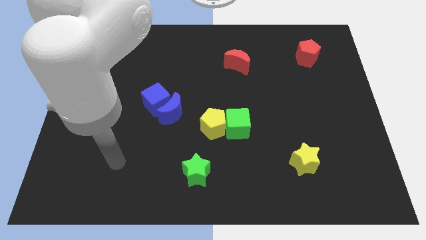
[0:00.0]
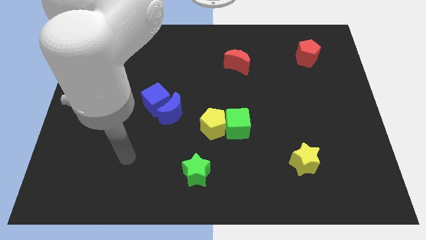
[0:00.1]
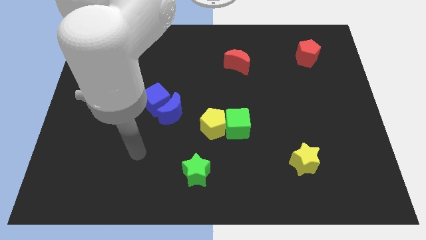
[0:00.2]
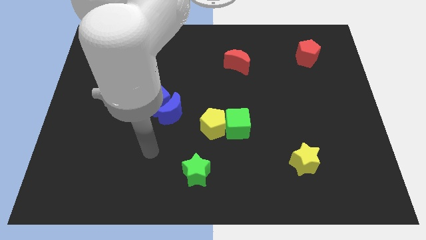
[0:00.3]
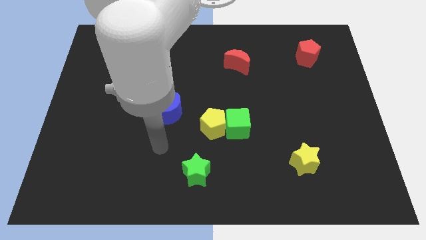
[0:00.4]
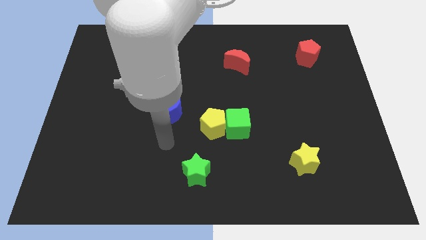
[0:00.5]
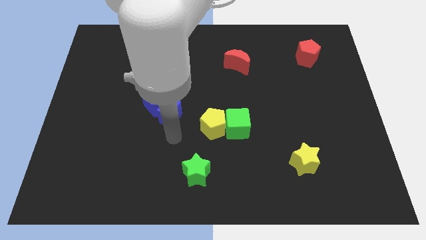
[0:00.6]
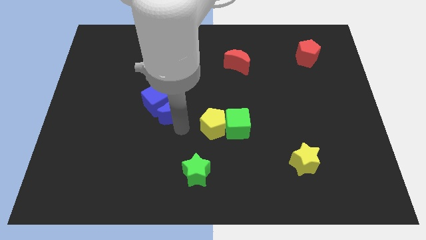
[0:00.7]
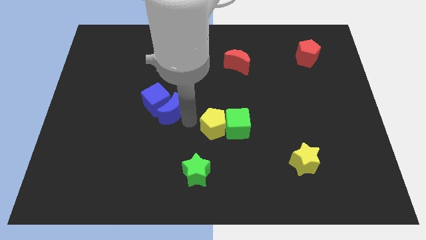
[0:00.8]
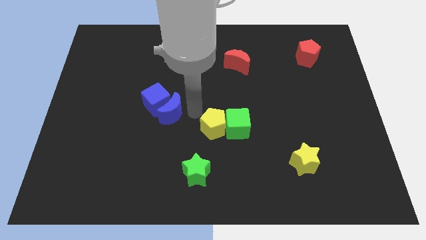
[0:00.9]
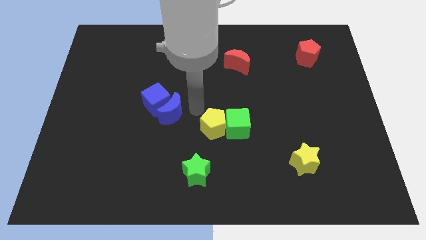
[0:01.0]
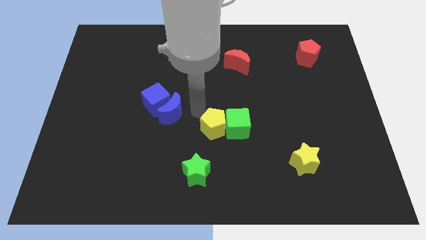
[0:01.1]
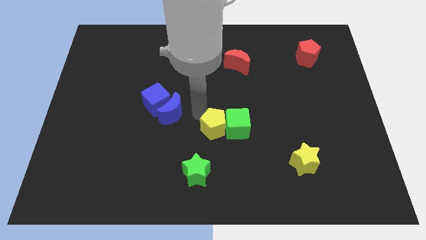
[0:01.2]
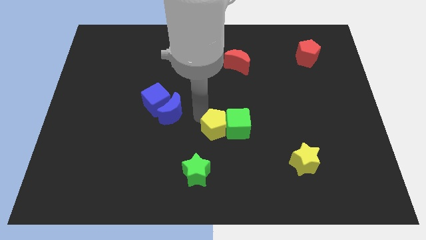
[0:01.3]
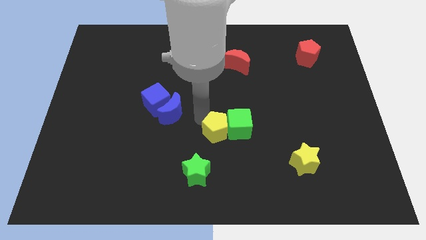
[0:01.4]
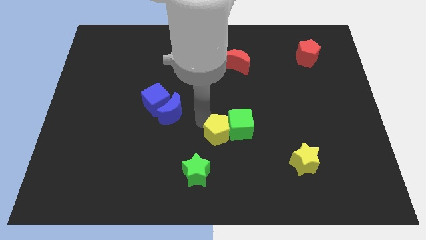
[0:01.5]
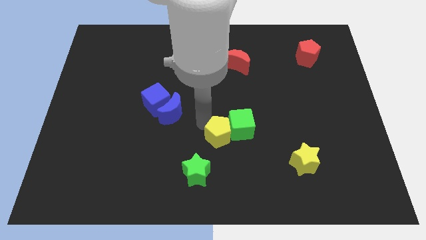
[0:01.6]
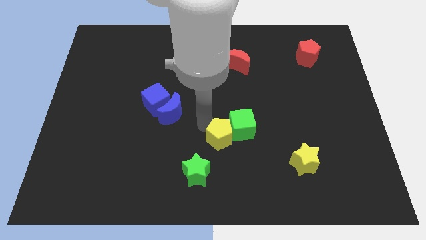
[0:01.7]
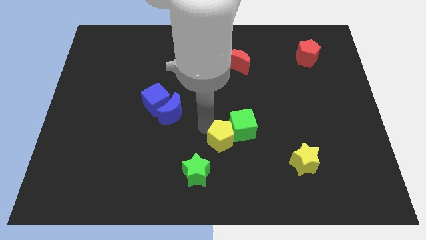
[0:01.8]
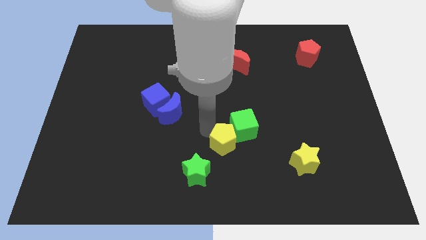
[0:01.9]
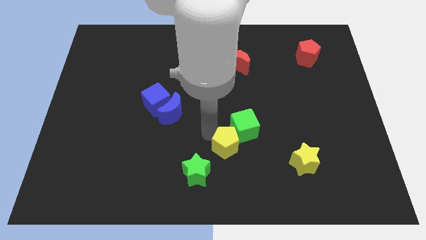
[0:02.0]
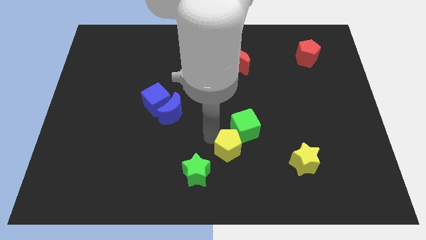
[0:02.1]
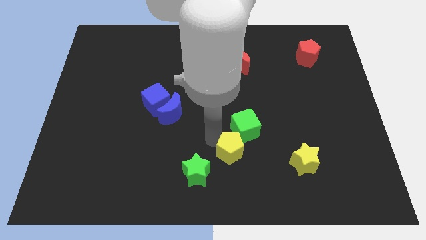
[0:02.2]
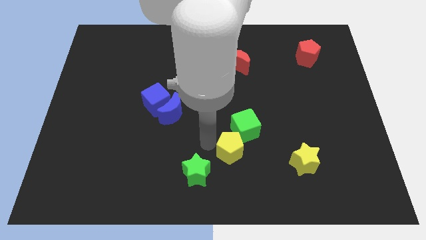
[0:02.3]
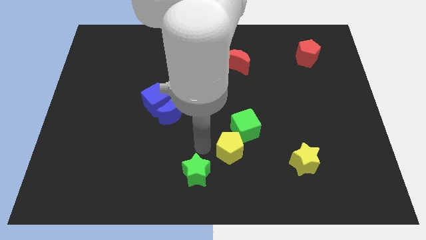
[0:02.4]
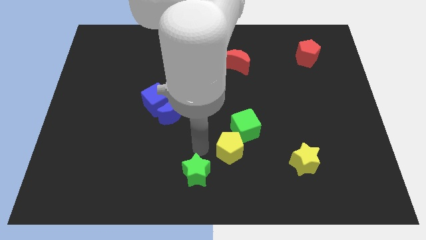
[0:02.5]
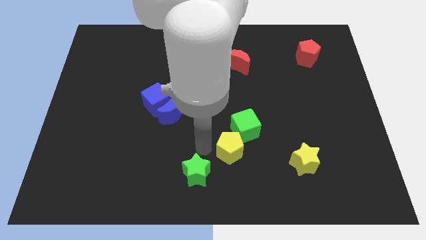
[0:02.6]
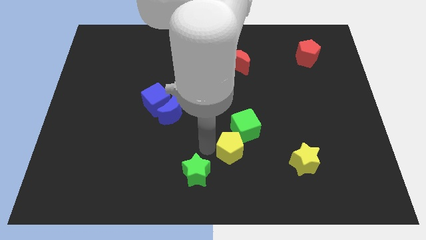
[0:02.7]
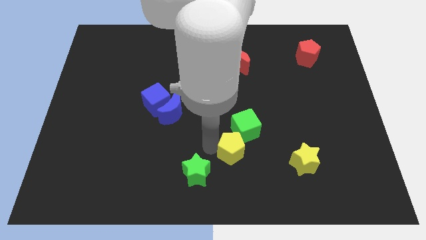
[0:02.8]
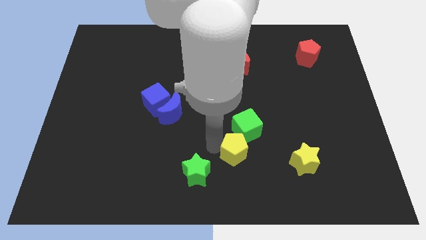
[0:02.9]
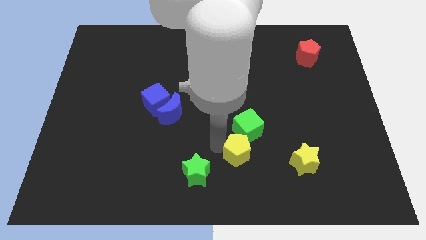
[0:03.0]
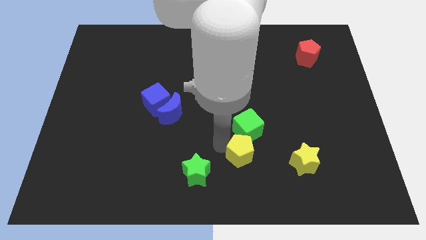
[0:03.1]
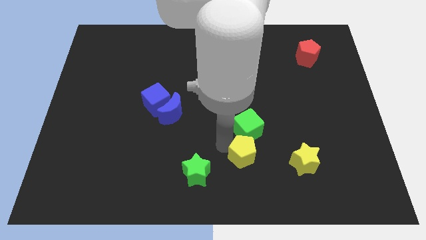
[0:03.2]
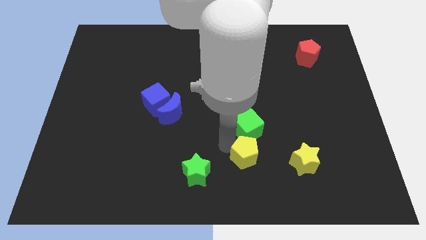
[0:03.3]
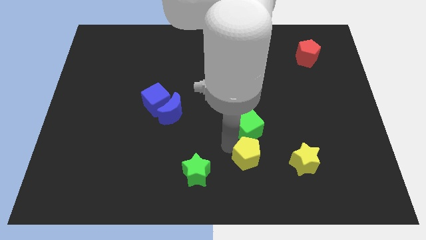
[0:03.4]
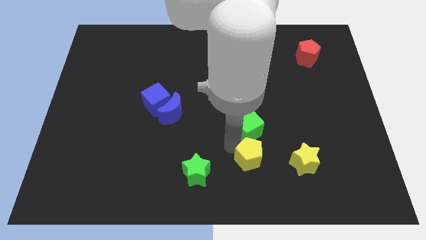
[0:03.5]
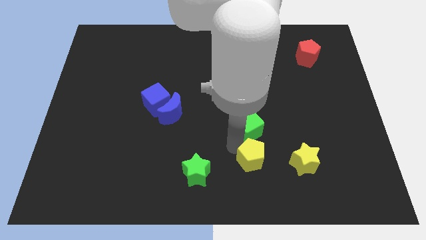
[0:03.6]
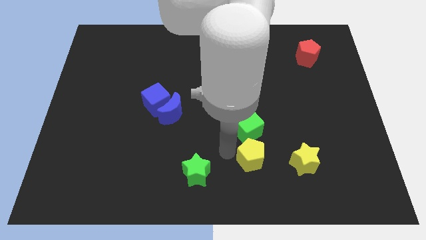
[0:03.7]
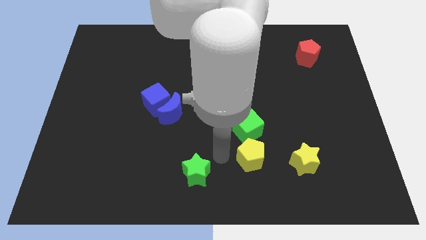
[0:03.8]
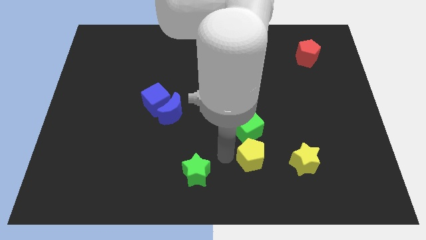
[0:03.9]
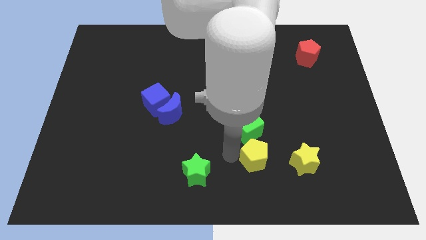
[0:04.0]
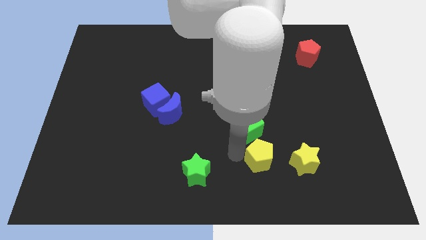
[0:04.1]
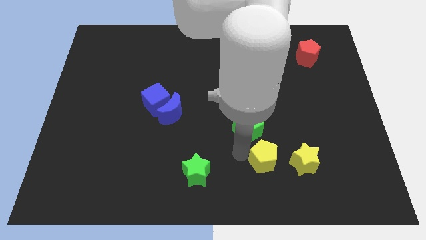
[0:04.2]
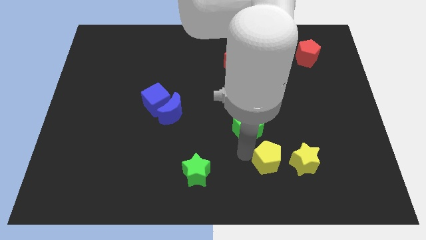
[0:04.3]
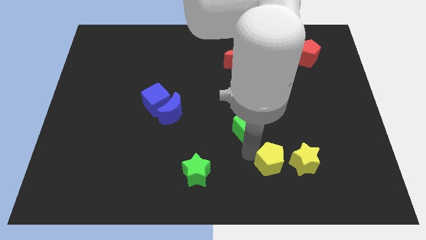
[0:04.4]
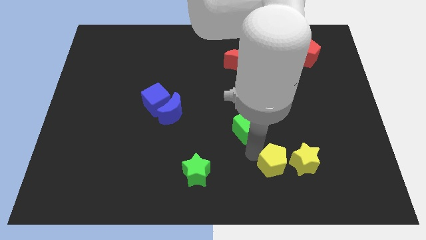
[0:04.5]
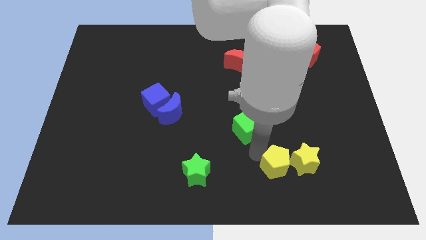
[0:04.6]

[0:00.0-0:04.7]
put the yellow pentagon close to the yellow star

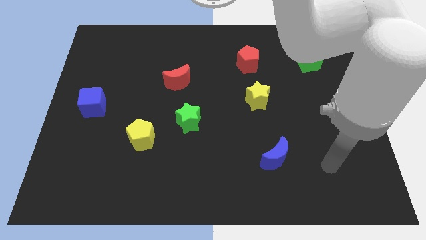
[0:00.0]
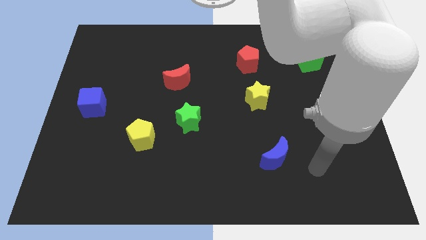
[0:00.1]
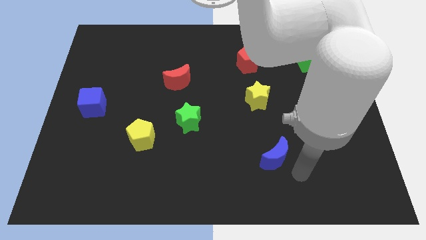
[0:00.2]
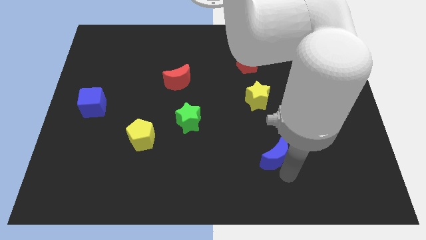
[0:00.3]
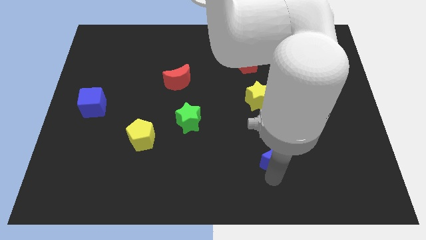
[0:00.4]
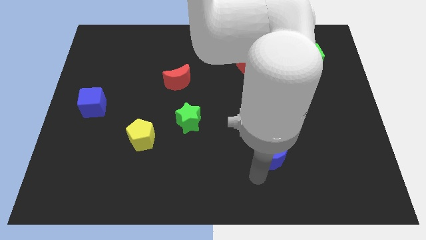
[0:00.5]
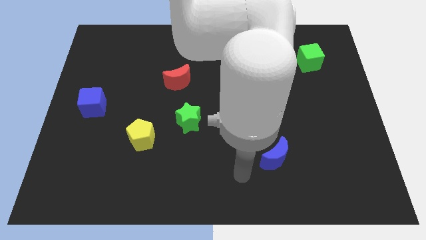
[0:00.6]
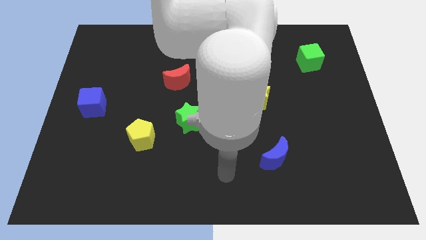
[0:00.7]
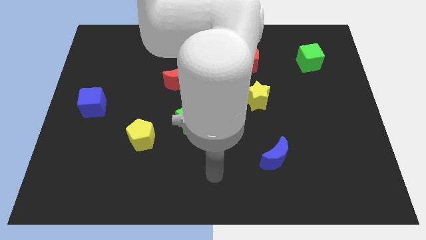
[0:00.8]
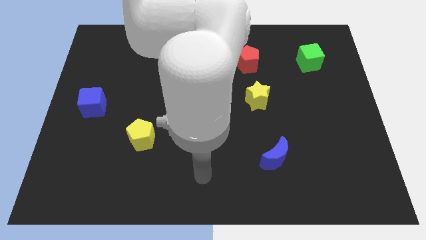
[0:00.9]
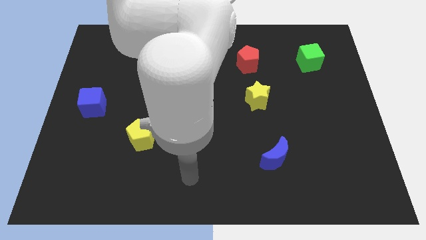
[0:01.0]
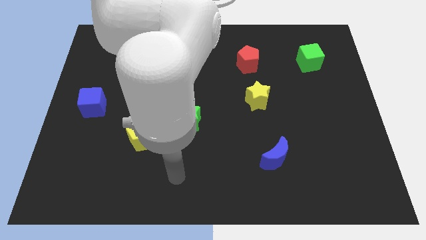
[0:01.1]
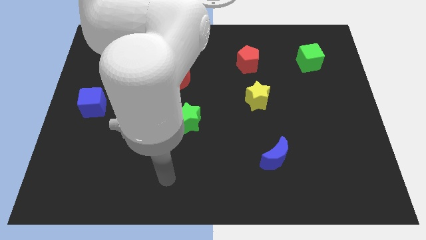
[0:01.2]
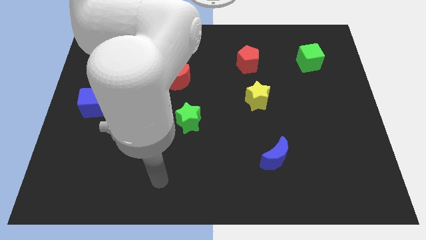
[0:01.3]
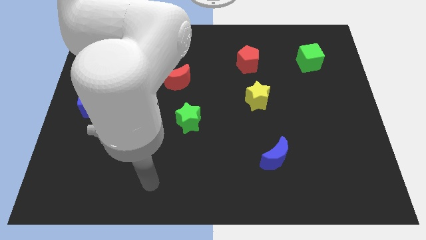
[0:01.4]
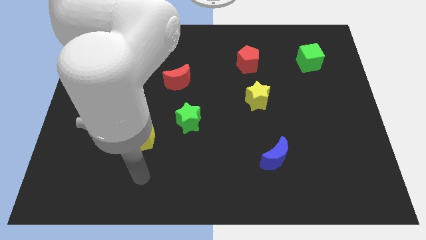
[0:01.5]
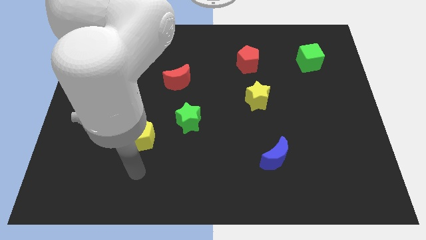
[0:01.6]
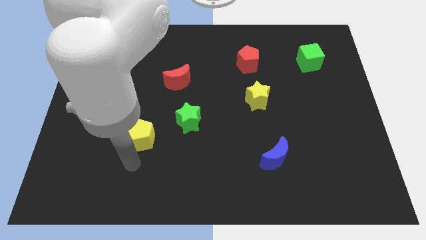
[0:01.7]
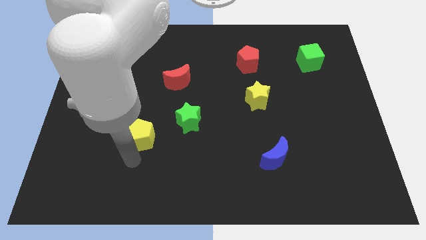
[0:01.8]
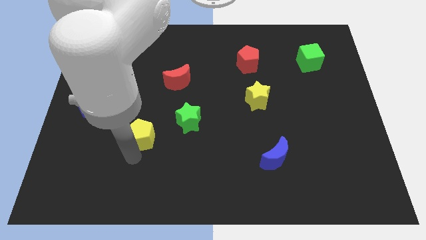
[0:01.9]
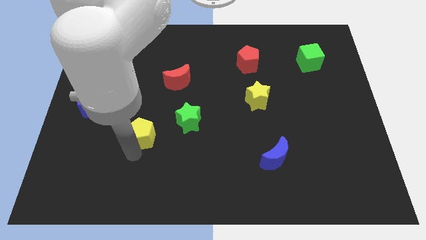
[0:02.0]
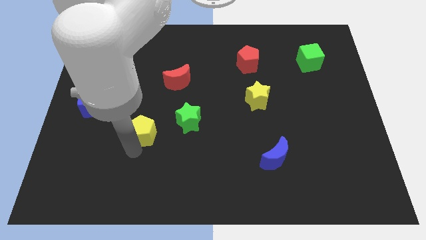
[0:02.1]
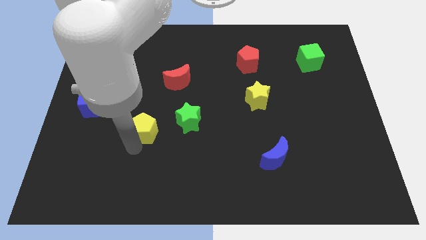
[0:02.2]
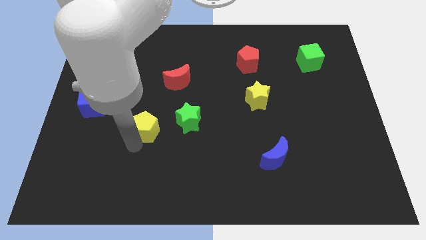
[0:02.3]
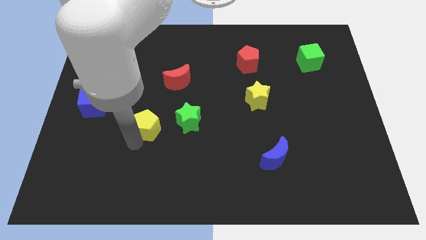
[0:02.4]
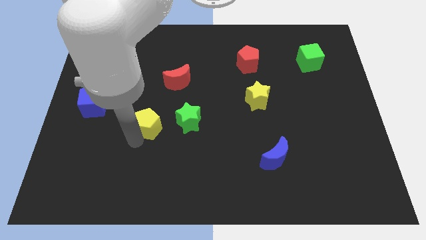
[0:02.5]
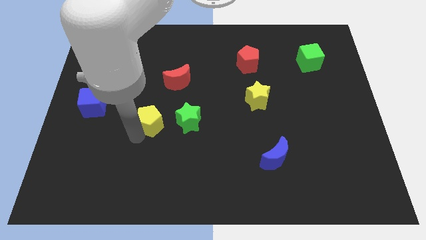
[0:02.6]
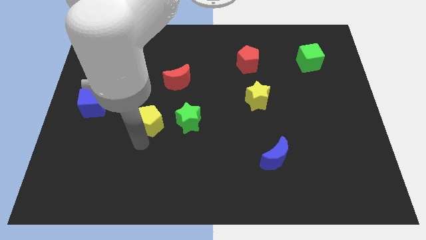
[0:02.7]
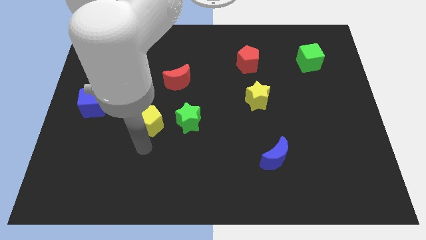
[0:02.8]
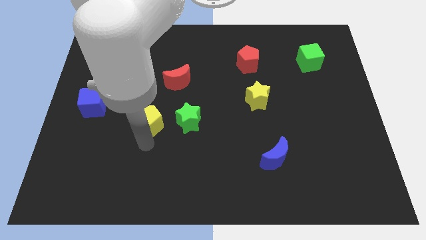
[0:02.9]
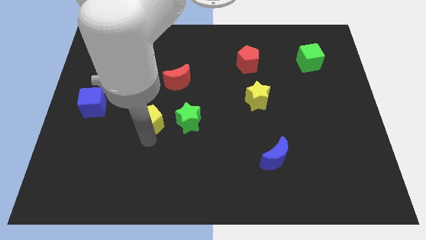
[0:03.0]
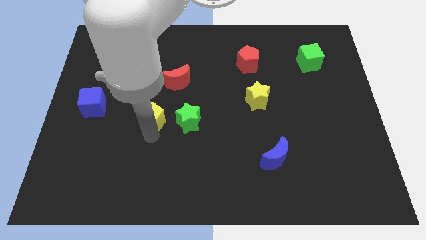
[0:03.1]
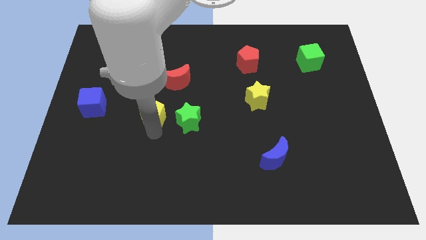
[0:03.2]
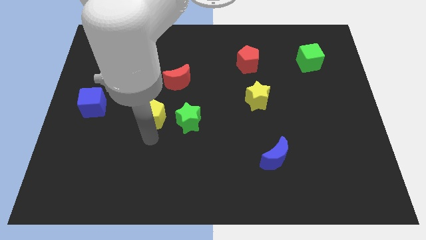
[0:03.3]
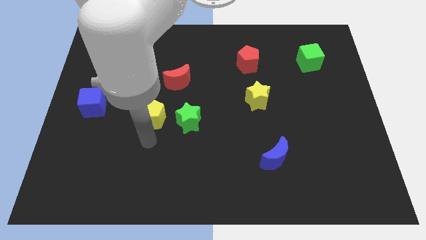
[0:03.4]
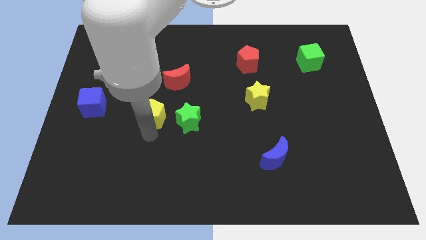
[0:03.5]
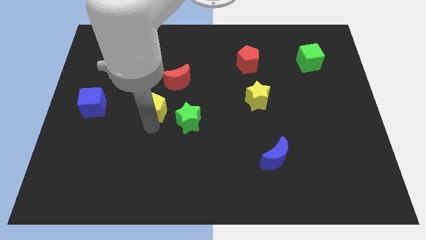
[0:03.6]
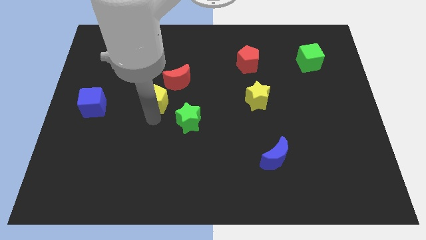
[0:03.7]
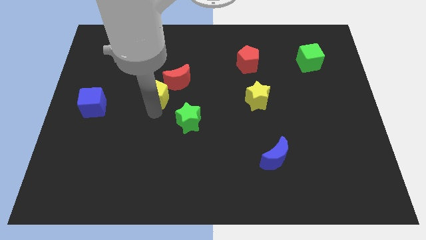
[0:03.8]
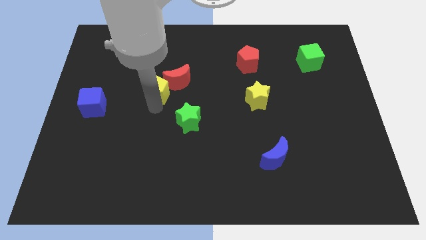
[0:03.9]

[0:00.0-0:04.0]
push the yellow pentagon close to the red moon

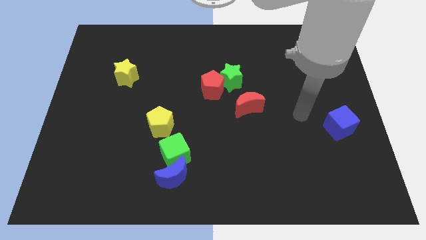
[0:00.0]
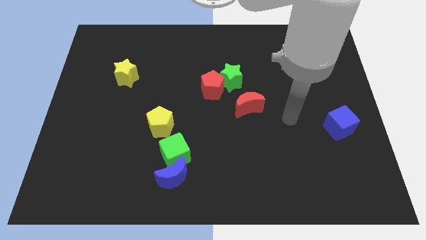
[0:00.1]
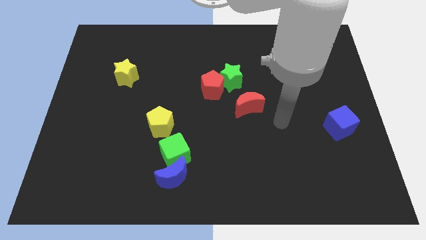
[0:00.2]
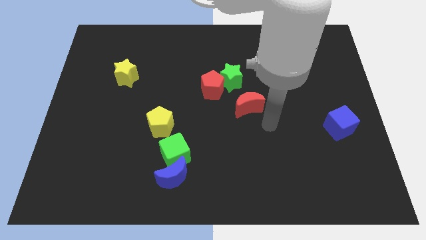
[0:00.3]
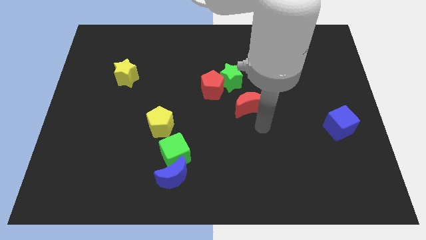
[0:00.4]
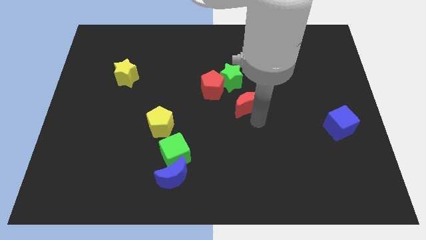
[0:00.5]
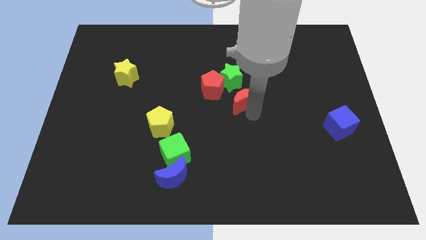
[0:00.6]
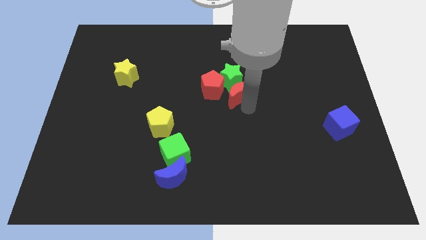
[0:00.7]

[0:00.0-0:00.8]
push the red moon towards the green star
